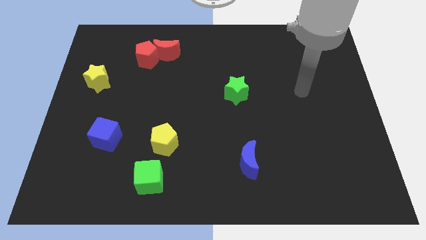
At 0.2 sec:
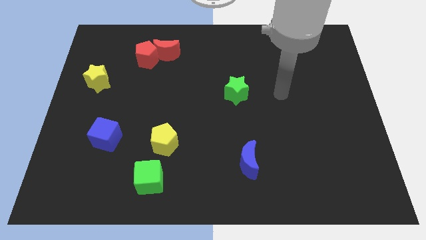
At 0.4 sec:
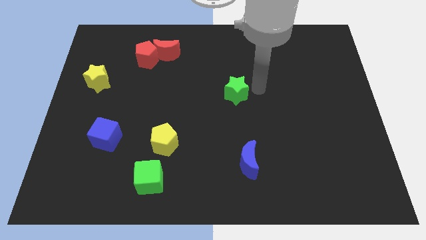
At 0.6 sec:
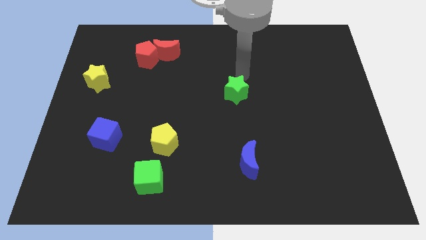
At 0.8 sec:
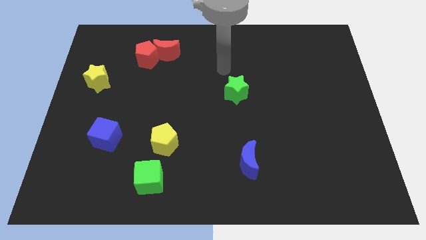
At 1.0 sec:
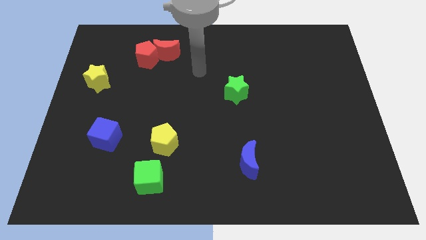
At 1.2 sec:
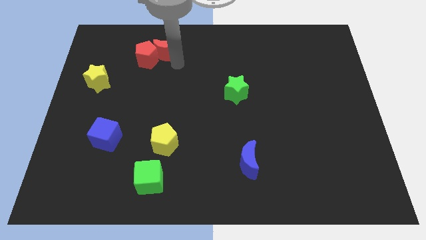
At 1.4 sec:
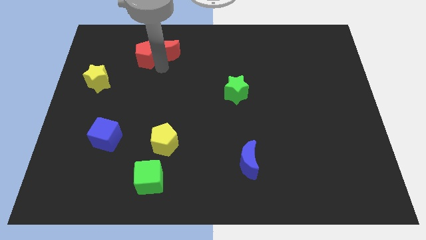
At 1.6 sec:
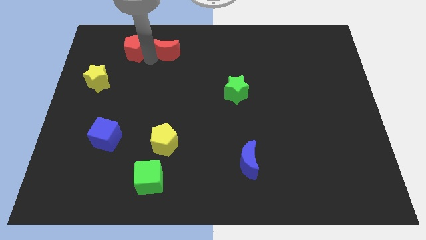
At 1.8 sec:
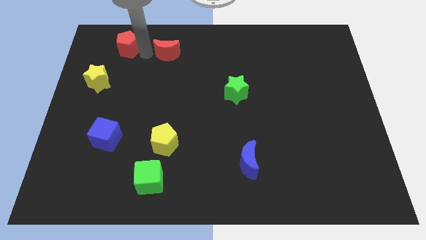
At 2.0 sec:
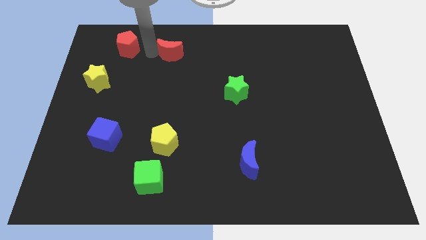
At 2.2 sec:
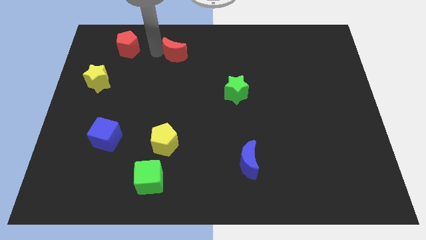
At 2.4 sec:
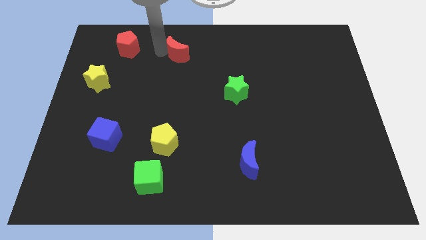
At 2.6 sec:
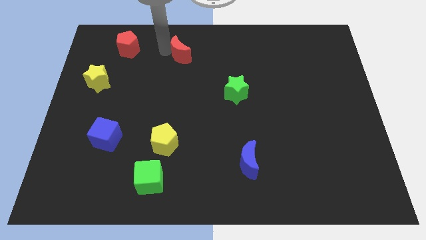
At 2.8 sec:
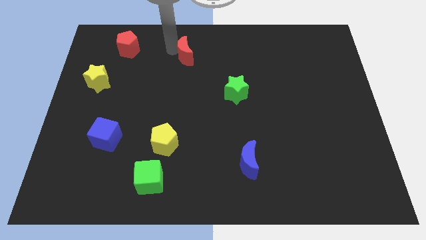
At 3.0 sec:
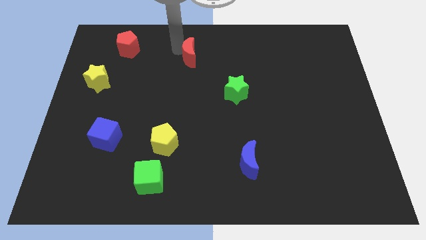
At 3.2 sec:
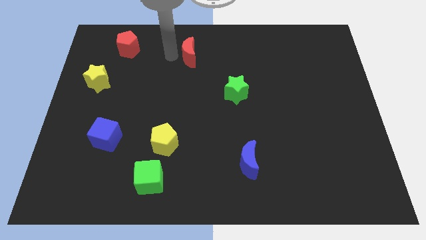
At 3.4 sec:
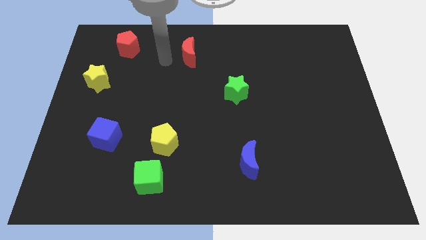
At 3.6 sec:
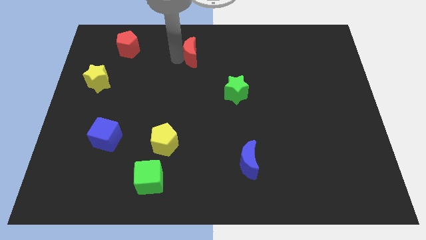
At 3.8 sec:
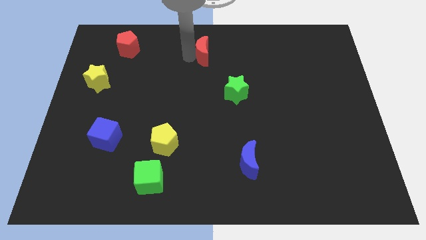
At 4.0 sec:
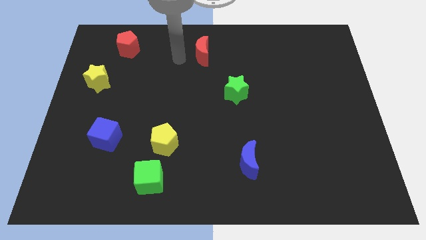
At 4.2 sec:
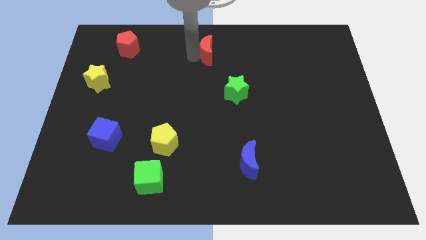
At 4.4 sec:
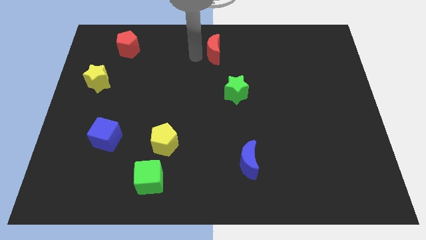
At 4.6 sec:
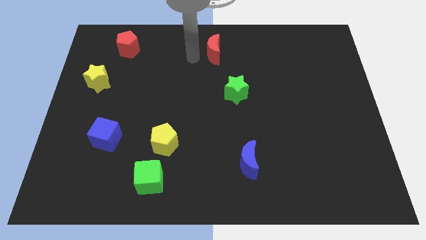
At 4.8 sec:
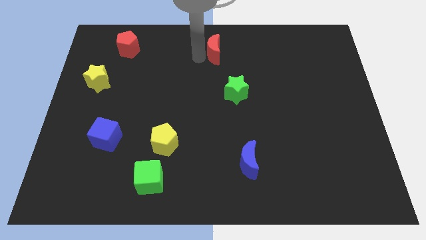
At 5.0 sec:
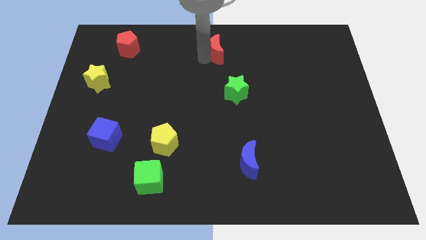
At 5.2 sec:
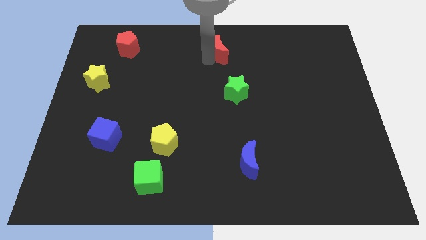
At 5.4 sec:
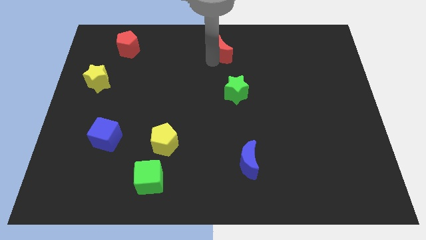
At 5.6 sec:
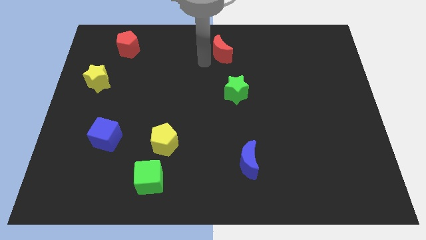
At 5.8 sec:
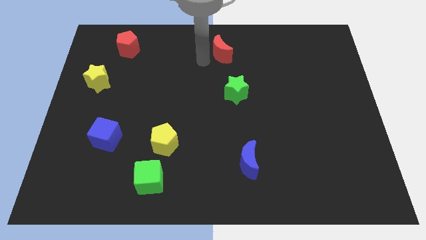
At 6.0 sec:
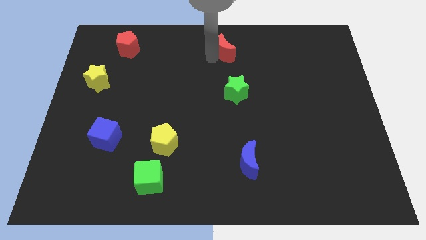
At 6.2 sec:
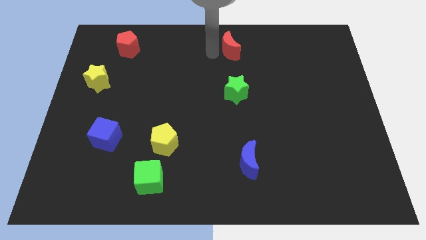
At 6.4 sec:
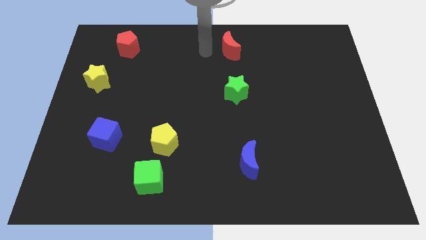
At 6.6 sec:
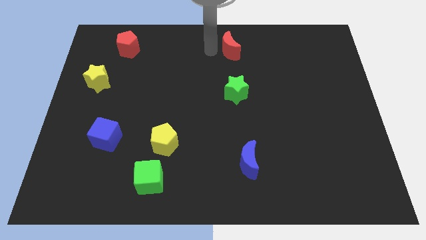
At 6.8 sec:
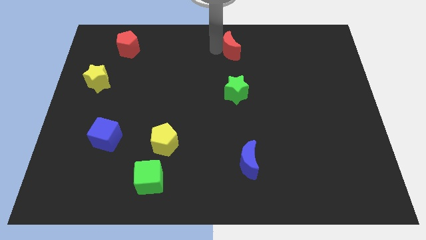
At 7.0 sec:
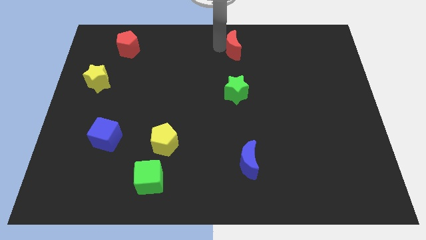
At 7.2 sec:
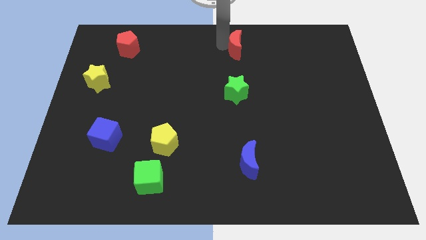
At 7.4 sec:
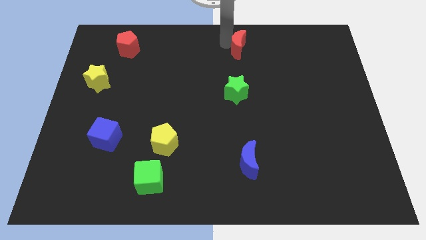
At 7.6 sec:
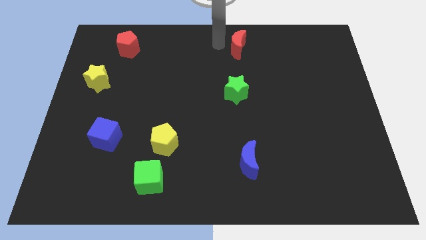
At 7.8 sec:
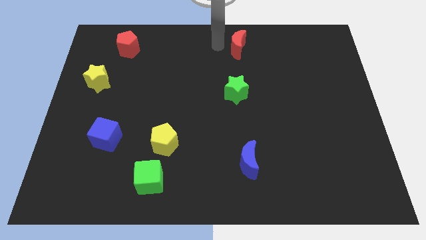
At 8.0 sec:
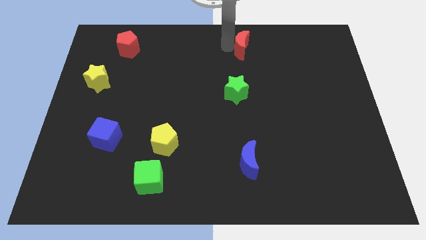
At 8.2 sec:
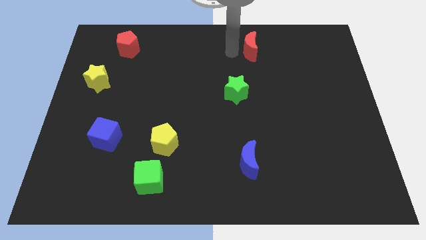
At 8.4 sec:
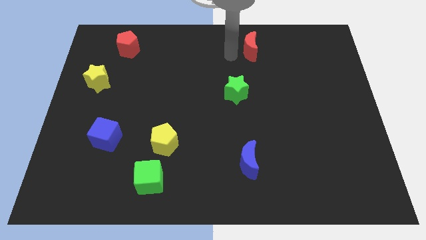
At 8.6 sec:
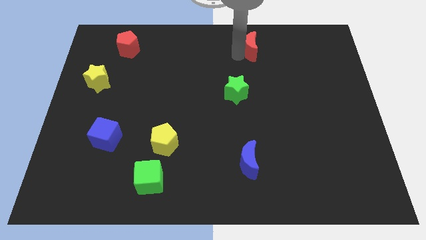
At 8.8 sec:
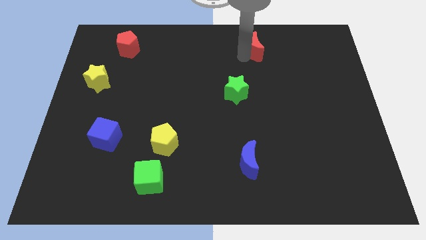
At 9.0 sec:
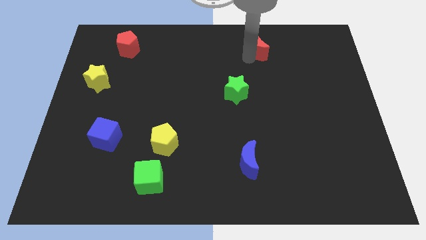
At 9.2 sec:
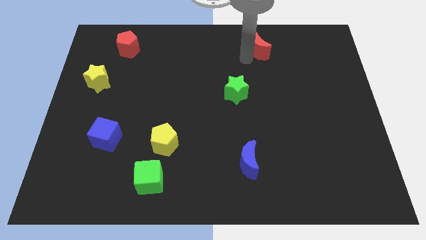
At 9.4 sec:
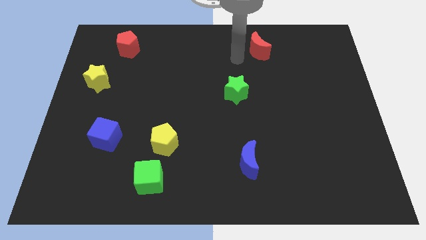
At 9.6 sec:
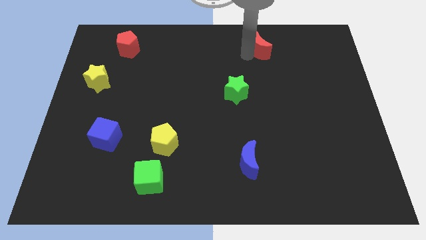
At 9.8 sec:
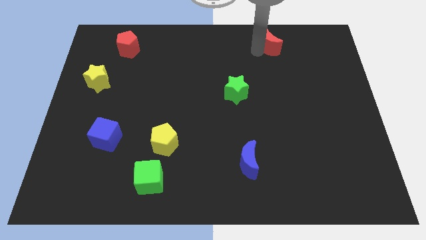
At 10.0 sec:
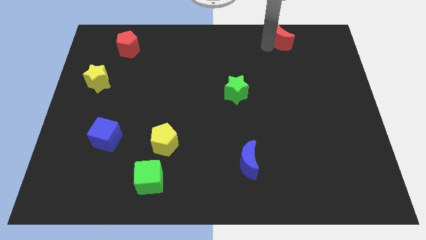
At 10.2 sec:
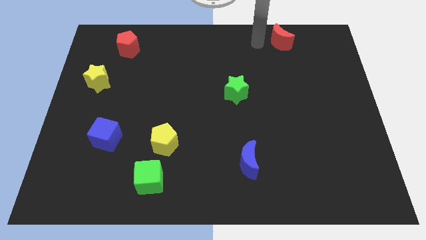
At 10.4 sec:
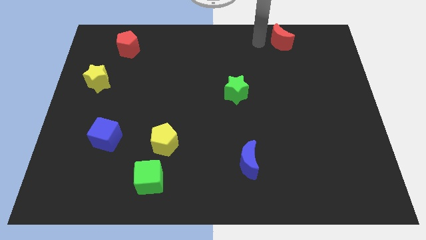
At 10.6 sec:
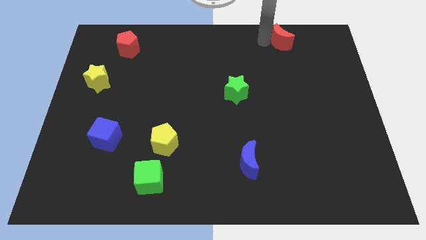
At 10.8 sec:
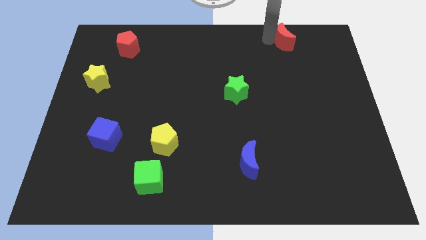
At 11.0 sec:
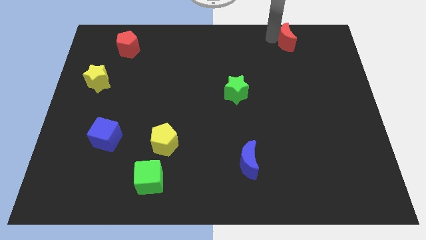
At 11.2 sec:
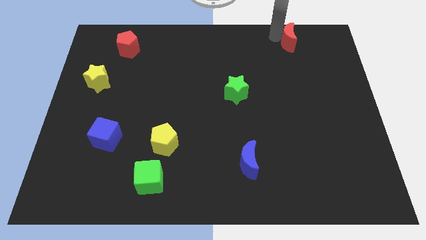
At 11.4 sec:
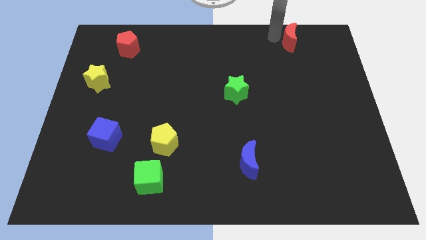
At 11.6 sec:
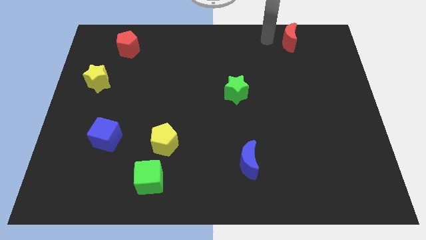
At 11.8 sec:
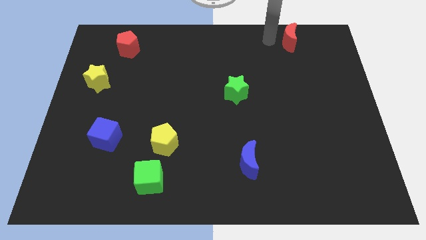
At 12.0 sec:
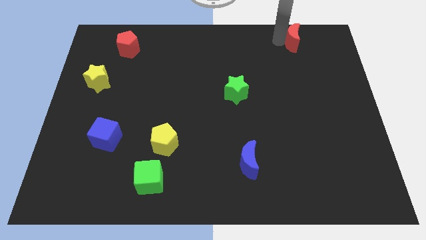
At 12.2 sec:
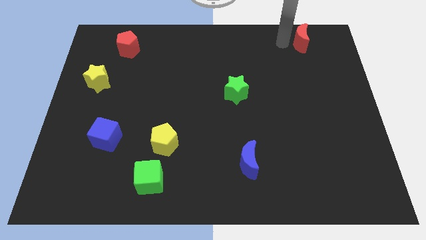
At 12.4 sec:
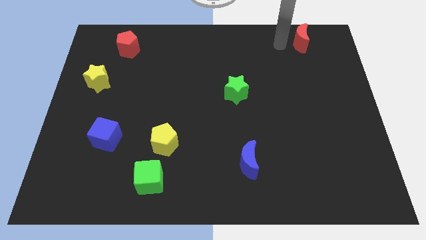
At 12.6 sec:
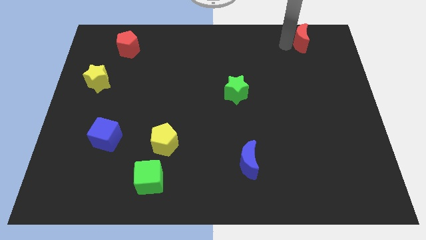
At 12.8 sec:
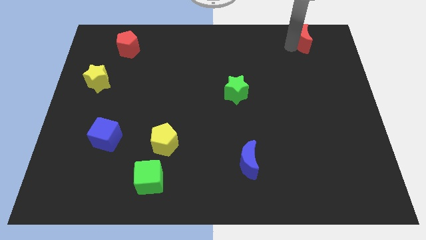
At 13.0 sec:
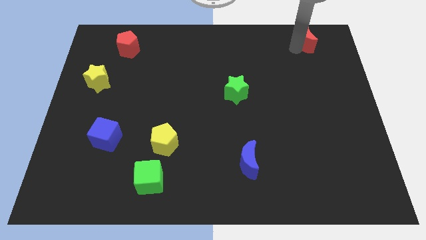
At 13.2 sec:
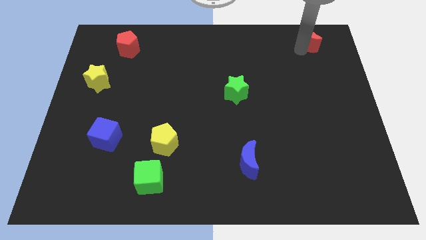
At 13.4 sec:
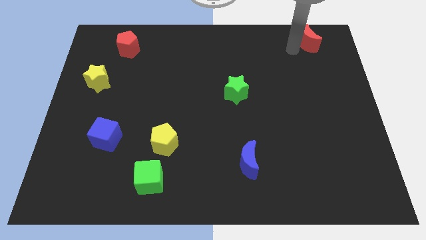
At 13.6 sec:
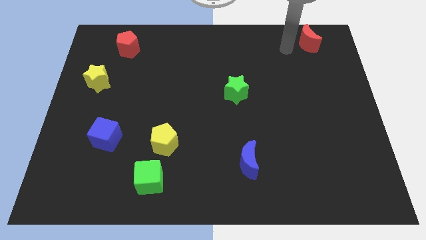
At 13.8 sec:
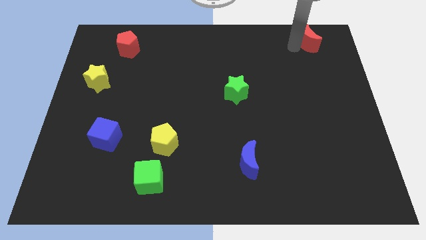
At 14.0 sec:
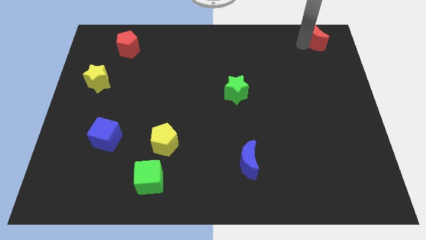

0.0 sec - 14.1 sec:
push the red moon to the top right of the board

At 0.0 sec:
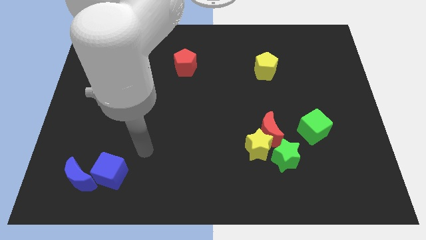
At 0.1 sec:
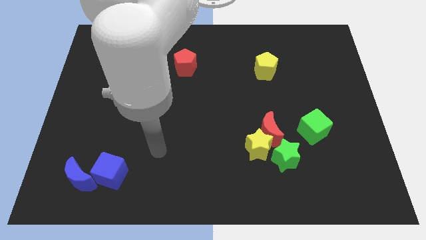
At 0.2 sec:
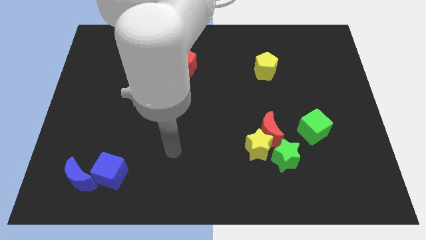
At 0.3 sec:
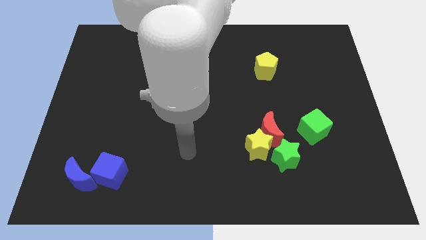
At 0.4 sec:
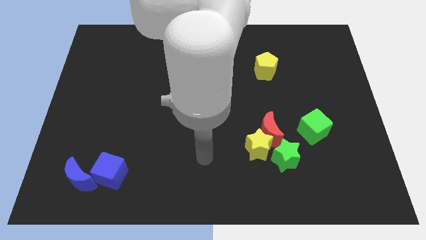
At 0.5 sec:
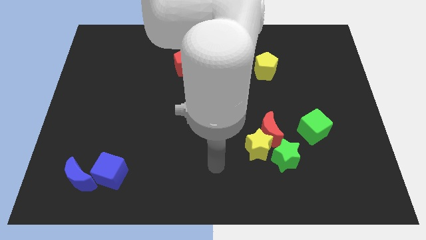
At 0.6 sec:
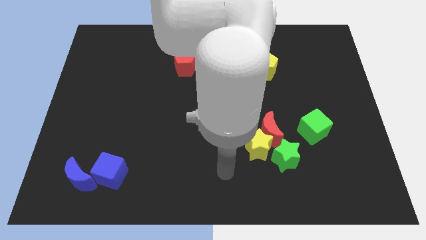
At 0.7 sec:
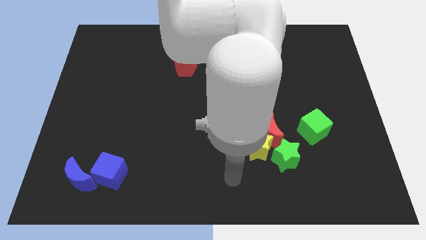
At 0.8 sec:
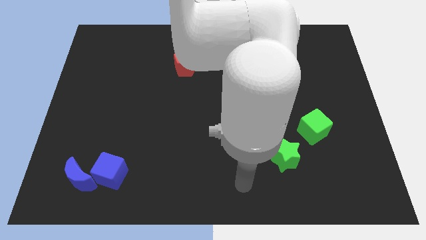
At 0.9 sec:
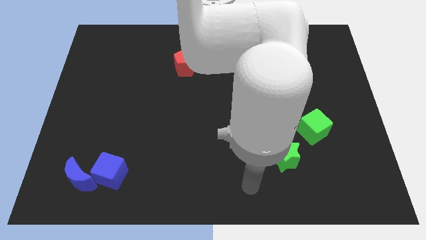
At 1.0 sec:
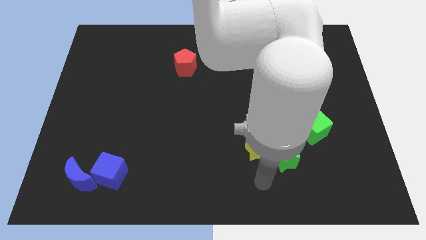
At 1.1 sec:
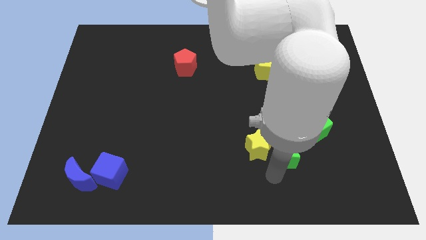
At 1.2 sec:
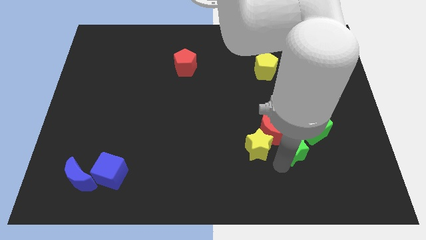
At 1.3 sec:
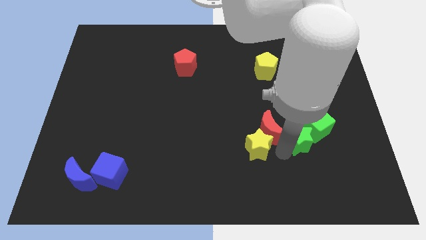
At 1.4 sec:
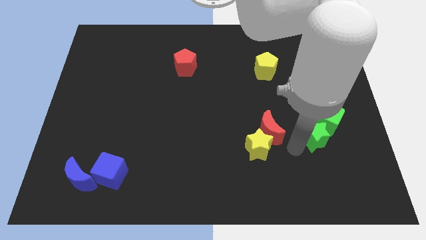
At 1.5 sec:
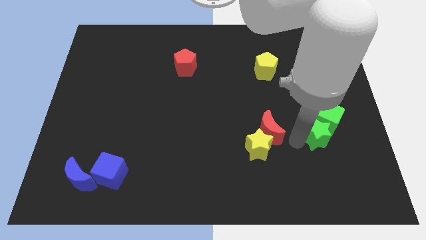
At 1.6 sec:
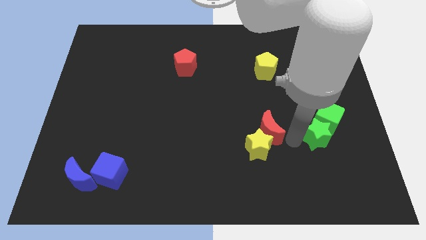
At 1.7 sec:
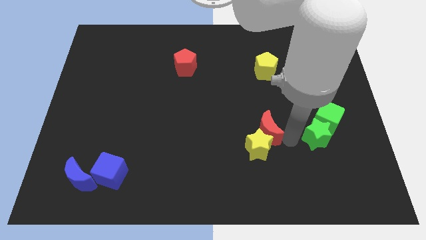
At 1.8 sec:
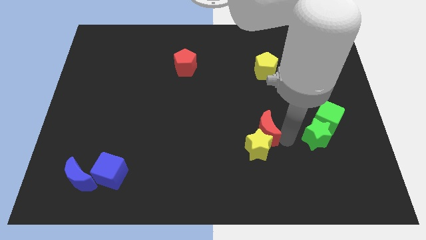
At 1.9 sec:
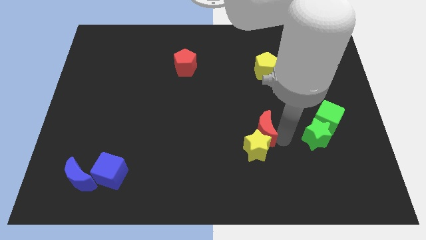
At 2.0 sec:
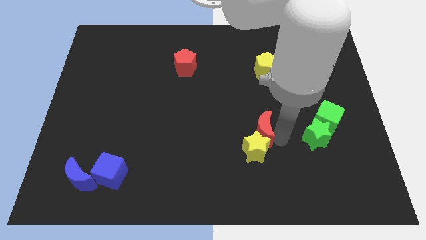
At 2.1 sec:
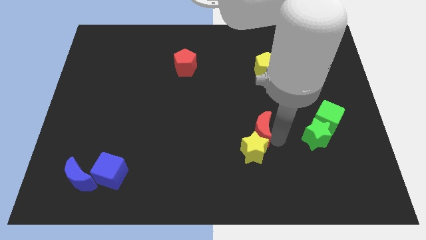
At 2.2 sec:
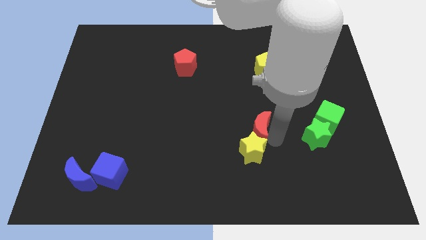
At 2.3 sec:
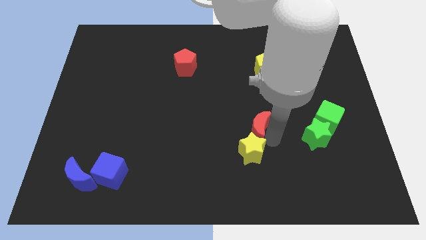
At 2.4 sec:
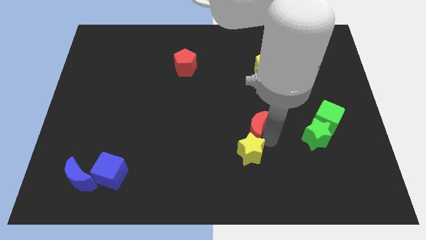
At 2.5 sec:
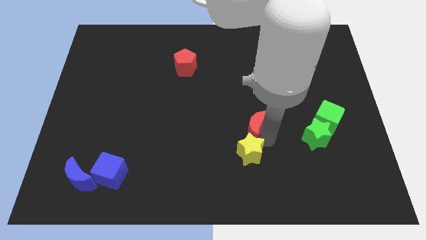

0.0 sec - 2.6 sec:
push the red moon to the center
